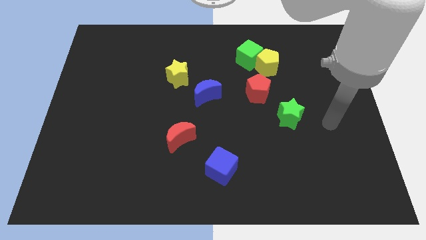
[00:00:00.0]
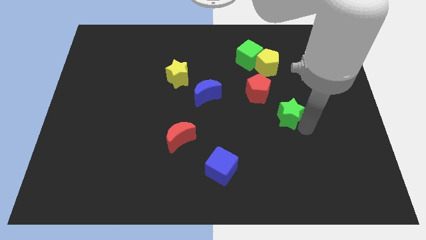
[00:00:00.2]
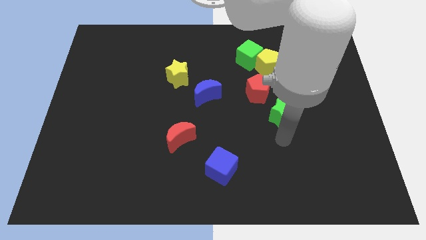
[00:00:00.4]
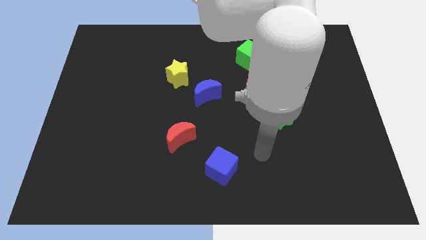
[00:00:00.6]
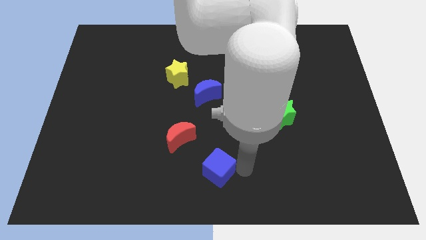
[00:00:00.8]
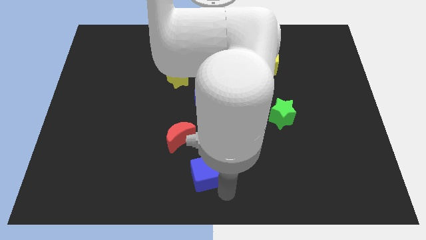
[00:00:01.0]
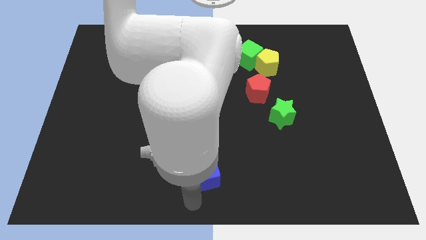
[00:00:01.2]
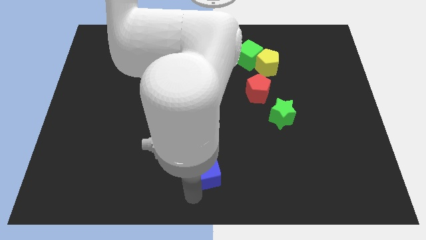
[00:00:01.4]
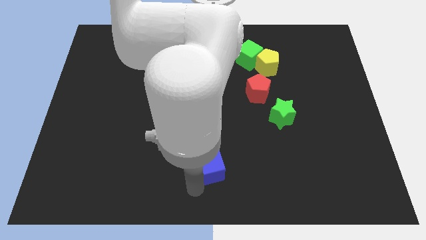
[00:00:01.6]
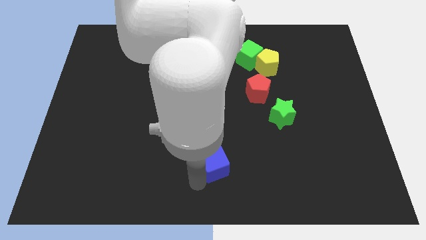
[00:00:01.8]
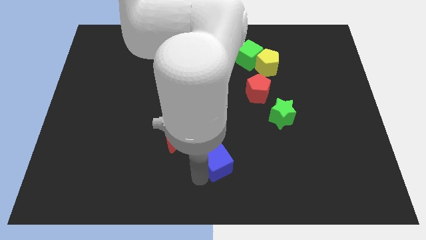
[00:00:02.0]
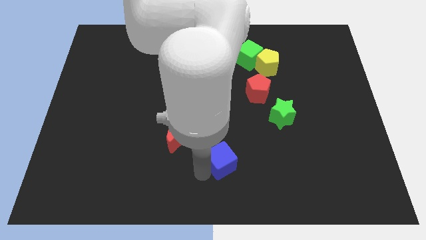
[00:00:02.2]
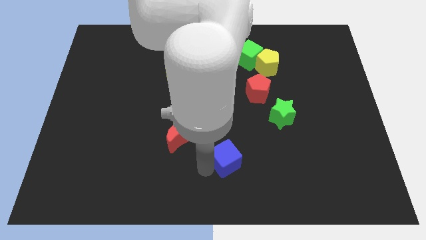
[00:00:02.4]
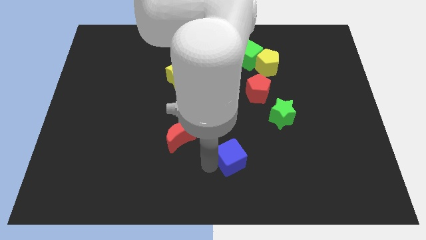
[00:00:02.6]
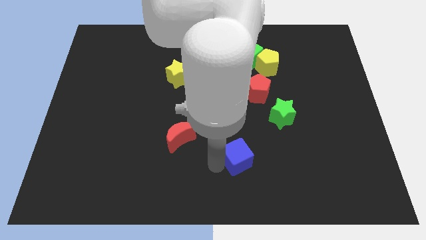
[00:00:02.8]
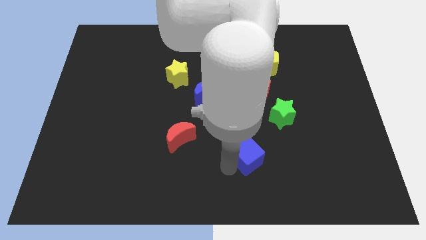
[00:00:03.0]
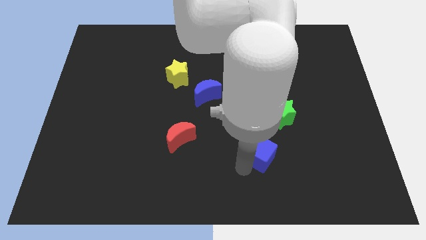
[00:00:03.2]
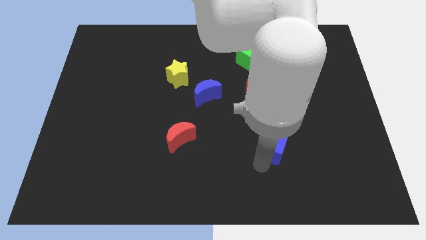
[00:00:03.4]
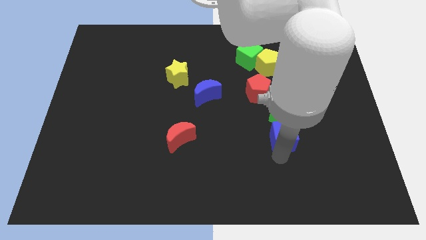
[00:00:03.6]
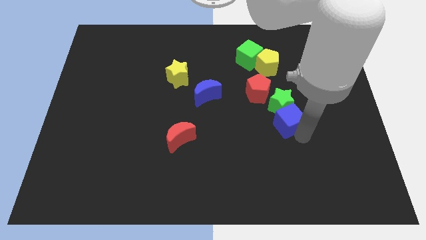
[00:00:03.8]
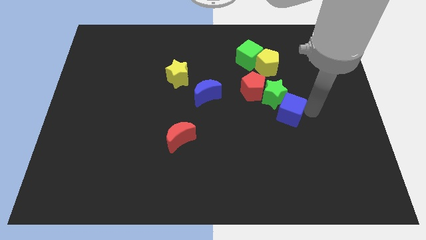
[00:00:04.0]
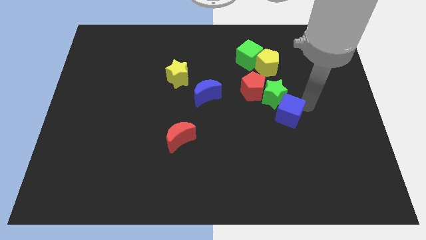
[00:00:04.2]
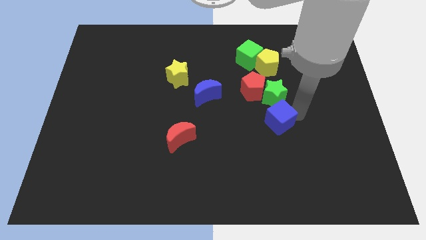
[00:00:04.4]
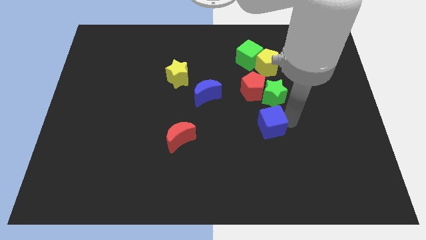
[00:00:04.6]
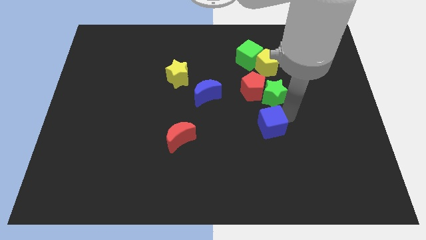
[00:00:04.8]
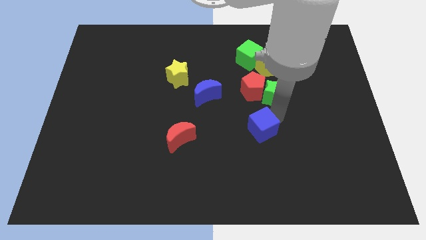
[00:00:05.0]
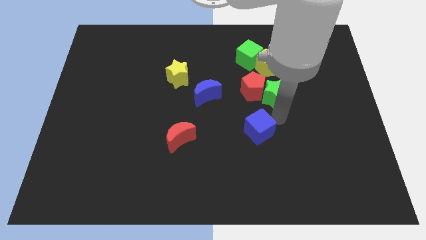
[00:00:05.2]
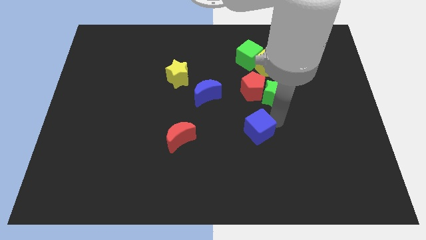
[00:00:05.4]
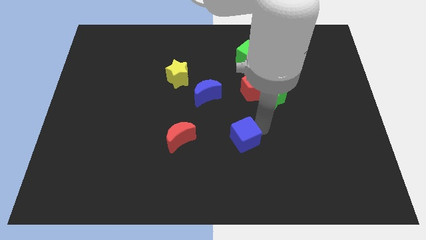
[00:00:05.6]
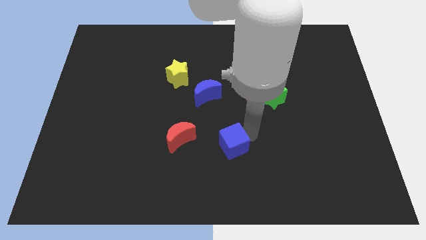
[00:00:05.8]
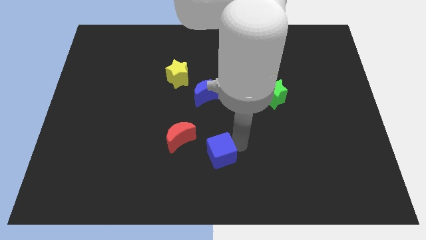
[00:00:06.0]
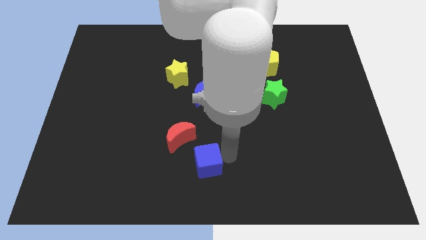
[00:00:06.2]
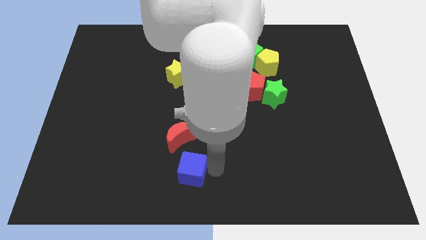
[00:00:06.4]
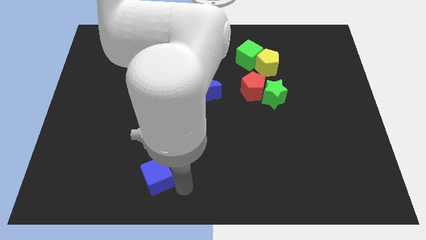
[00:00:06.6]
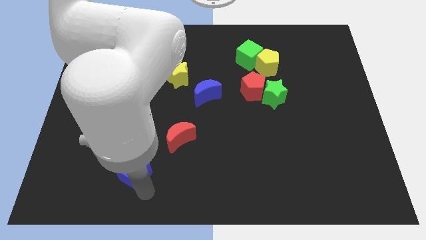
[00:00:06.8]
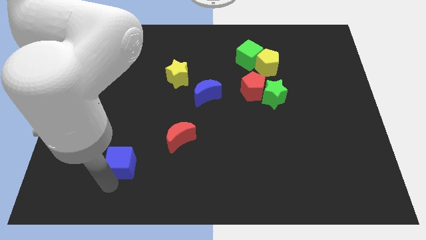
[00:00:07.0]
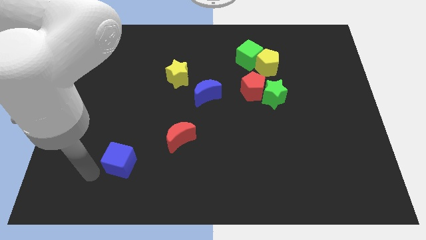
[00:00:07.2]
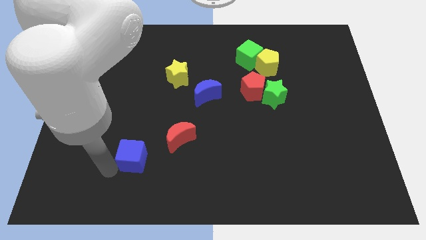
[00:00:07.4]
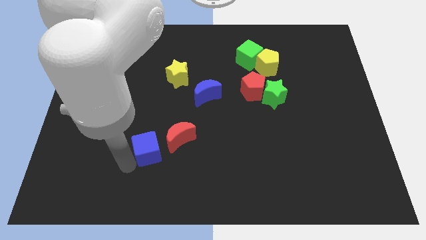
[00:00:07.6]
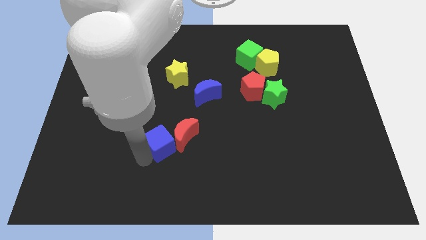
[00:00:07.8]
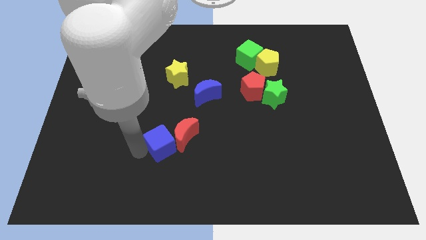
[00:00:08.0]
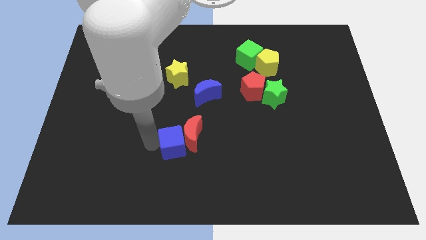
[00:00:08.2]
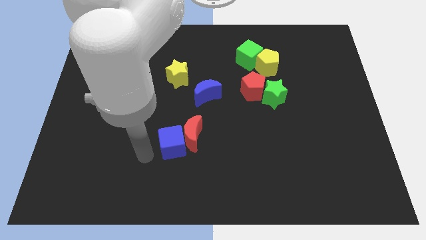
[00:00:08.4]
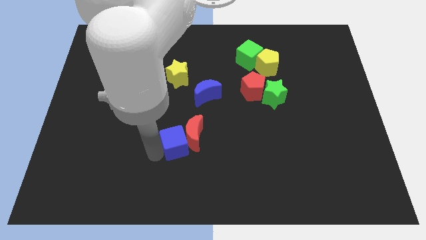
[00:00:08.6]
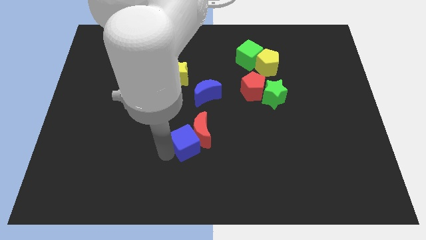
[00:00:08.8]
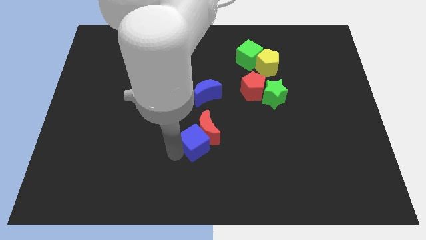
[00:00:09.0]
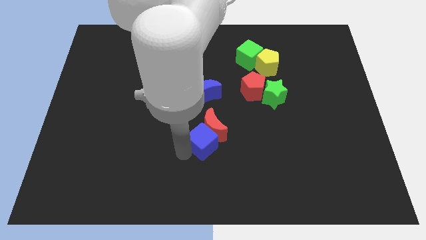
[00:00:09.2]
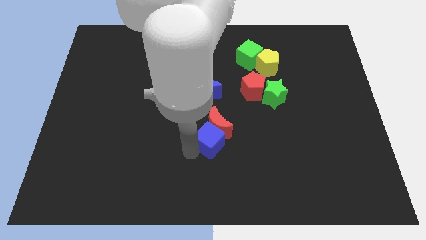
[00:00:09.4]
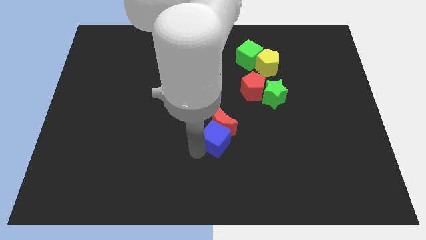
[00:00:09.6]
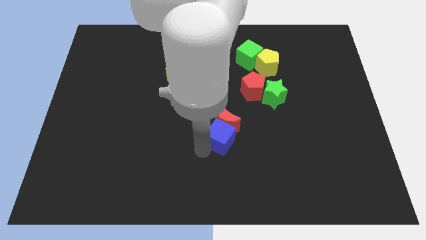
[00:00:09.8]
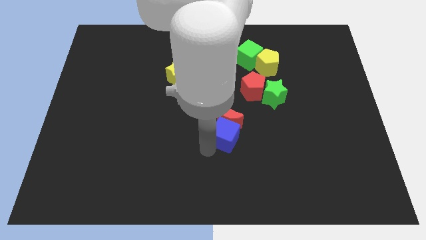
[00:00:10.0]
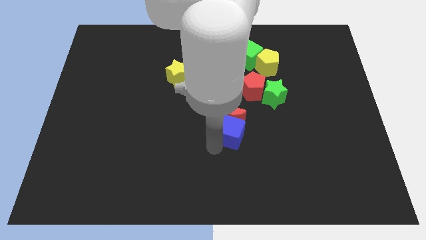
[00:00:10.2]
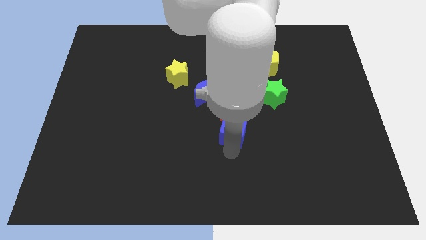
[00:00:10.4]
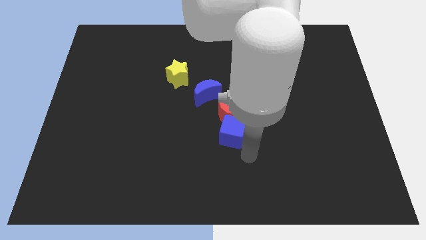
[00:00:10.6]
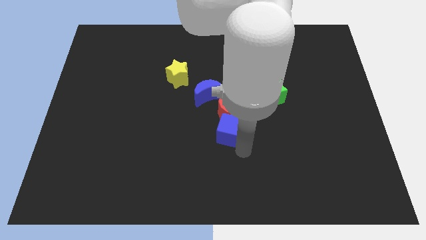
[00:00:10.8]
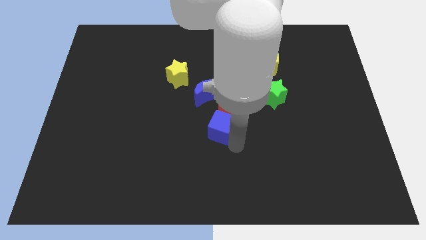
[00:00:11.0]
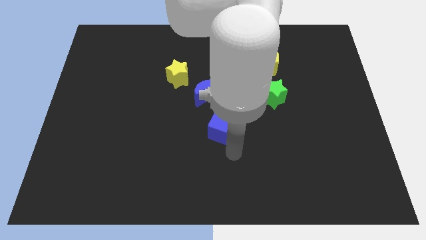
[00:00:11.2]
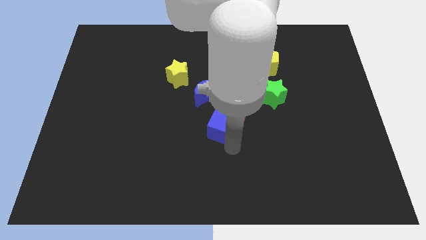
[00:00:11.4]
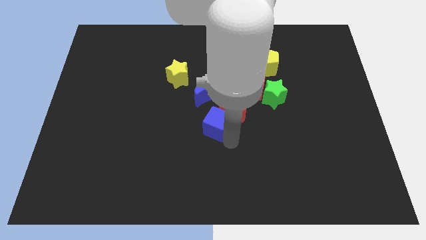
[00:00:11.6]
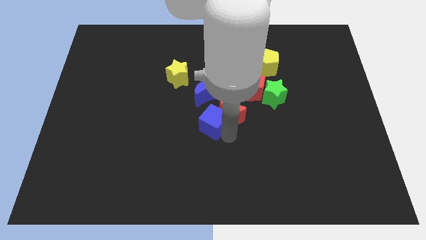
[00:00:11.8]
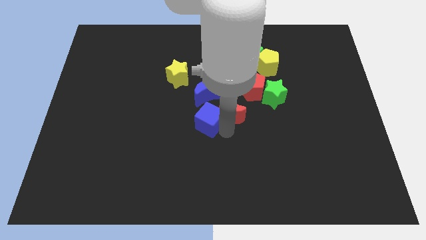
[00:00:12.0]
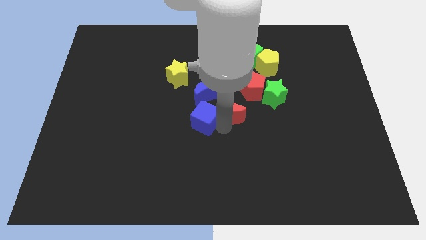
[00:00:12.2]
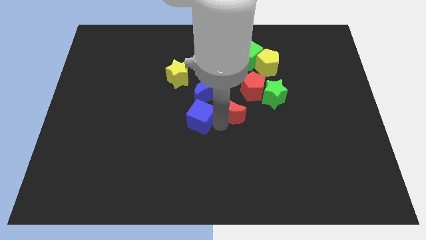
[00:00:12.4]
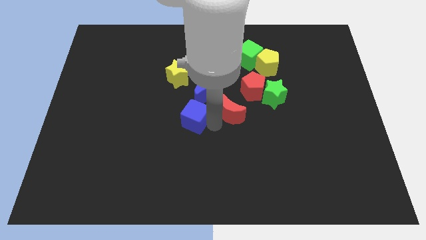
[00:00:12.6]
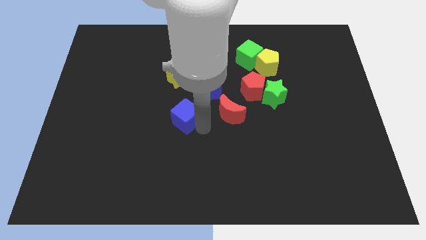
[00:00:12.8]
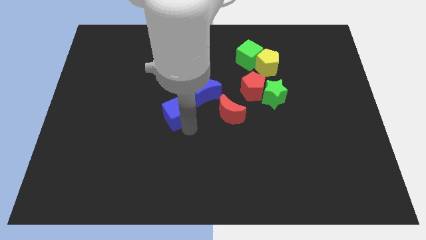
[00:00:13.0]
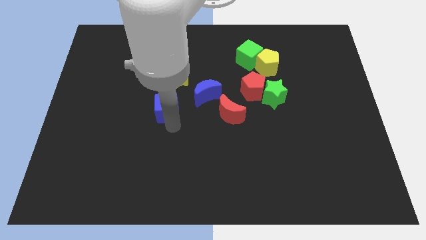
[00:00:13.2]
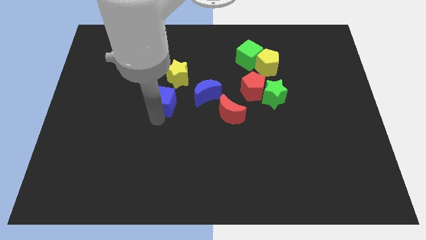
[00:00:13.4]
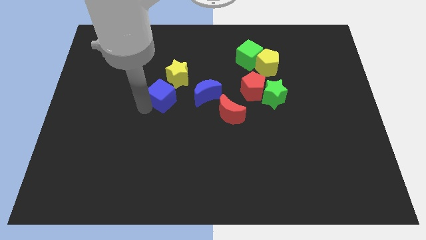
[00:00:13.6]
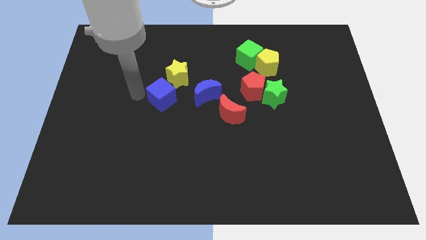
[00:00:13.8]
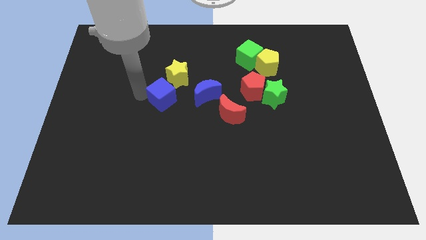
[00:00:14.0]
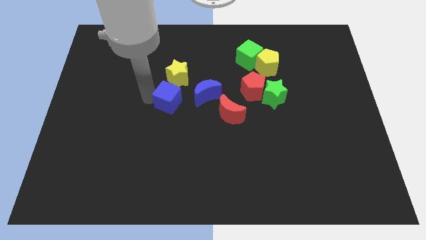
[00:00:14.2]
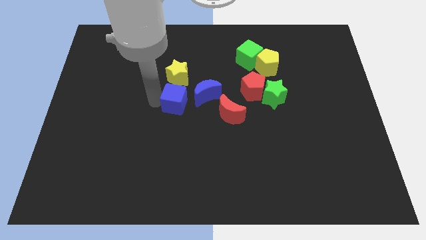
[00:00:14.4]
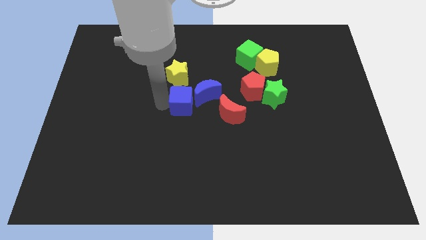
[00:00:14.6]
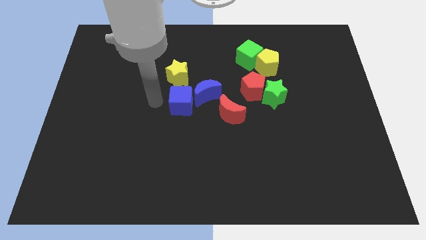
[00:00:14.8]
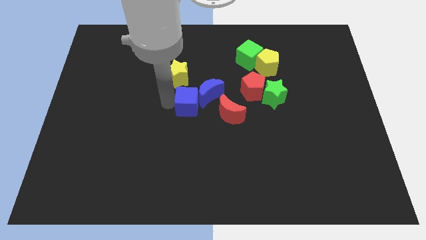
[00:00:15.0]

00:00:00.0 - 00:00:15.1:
put the blue cube close to the blue moon
